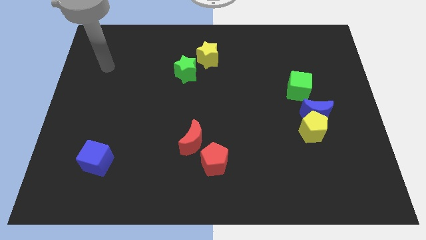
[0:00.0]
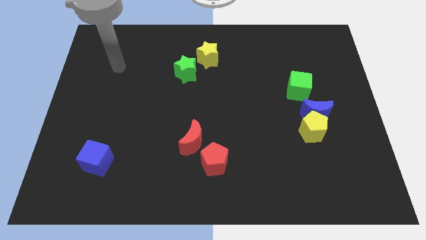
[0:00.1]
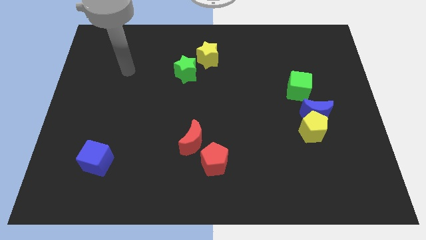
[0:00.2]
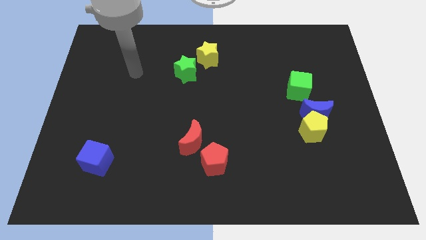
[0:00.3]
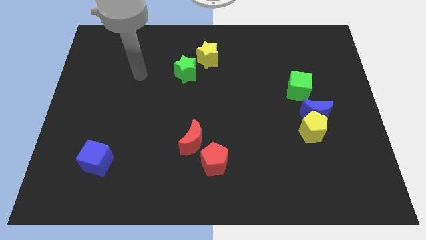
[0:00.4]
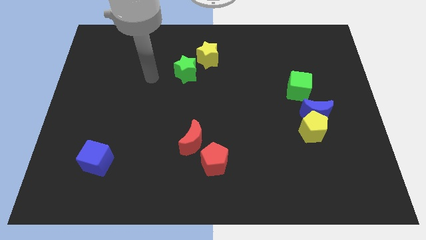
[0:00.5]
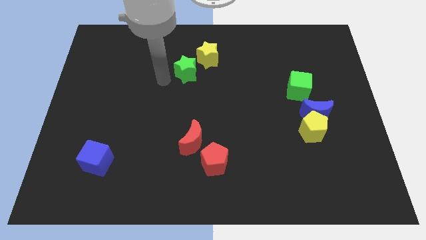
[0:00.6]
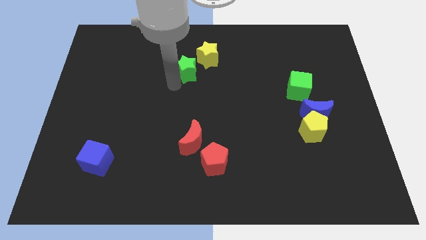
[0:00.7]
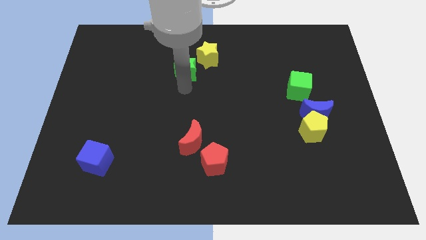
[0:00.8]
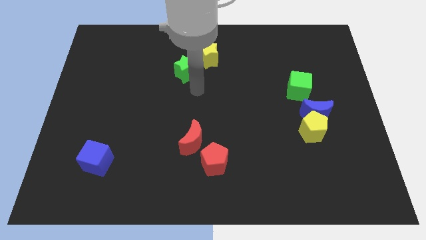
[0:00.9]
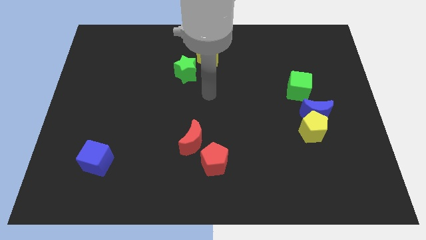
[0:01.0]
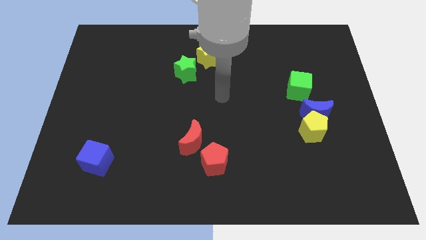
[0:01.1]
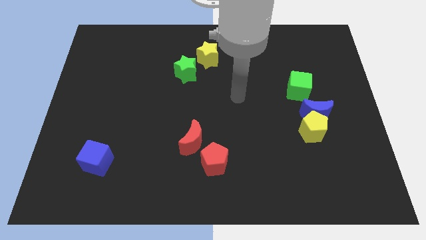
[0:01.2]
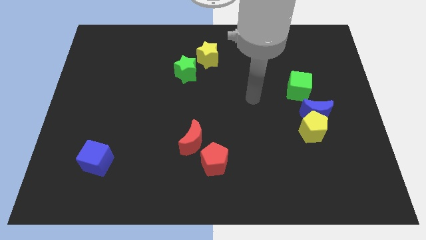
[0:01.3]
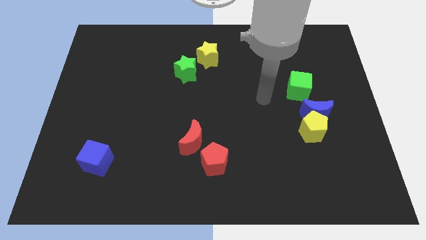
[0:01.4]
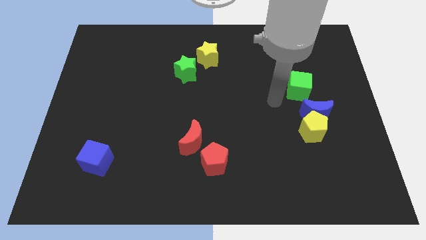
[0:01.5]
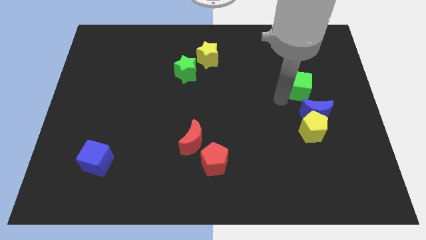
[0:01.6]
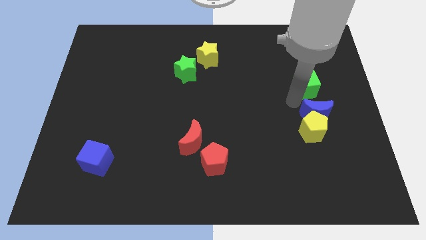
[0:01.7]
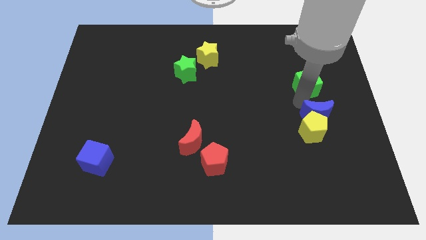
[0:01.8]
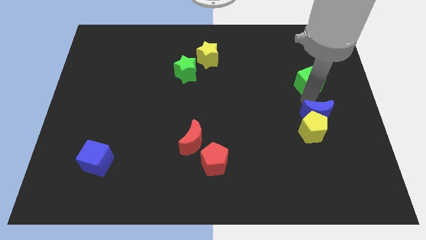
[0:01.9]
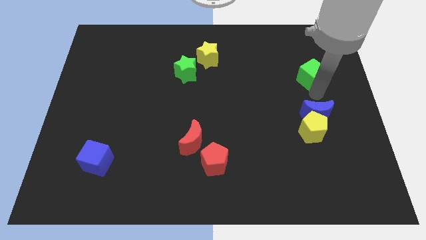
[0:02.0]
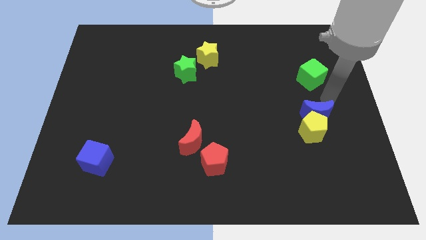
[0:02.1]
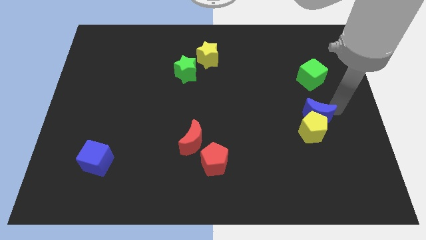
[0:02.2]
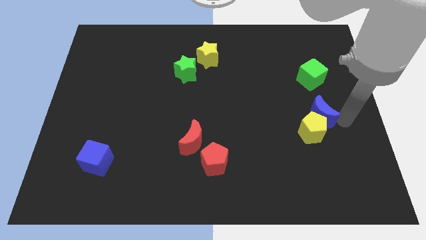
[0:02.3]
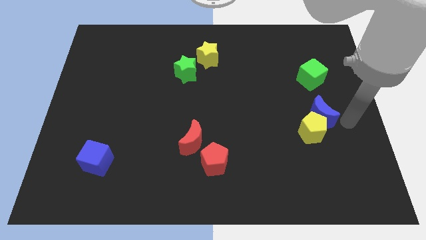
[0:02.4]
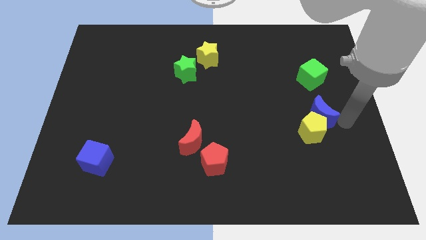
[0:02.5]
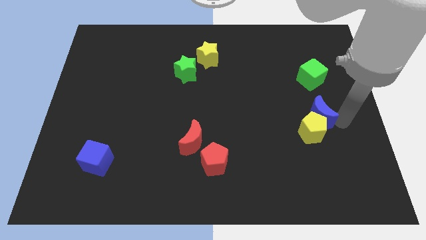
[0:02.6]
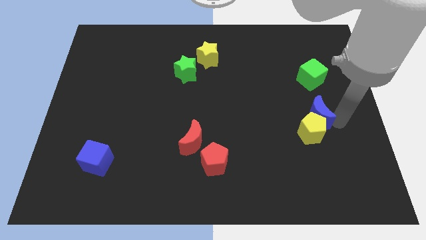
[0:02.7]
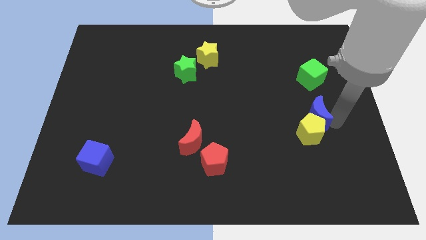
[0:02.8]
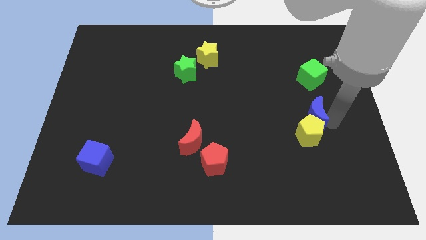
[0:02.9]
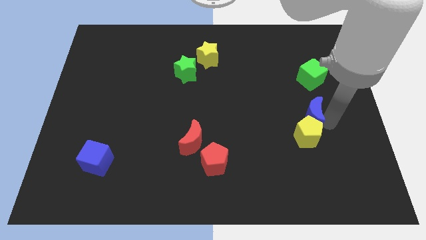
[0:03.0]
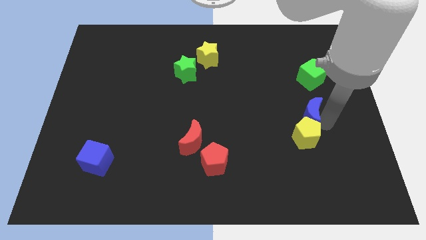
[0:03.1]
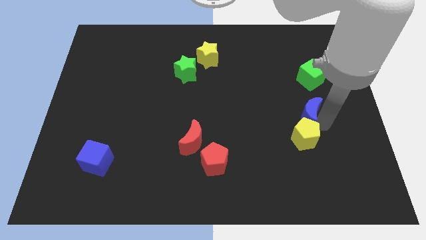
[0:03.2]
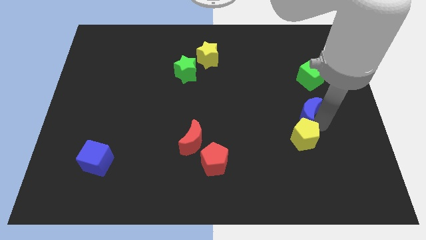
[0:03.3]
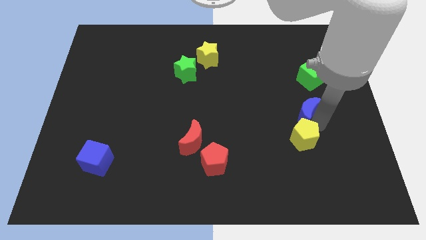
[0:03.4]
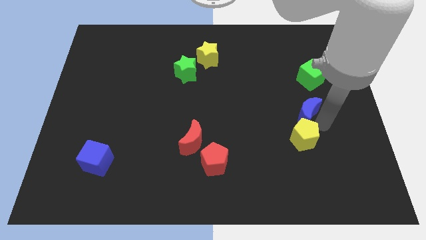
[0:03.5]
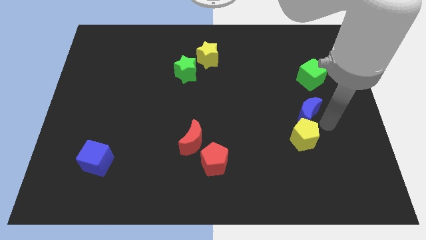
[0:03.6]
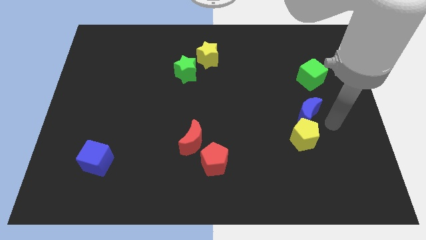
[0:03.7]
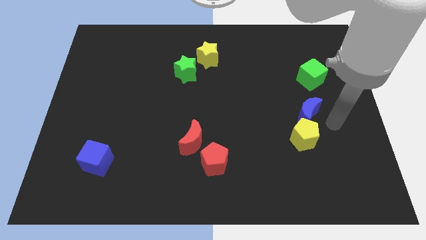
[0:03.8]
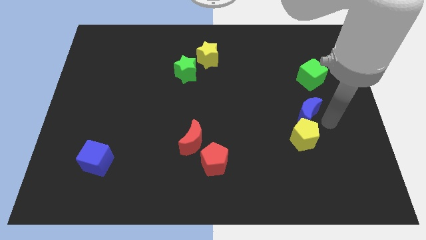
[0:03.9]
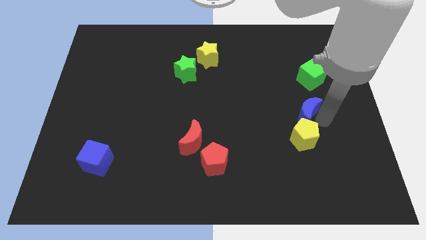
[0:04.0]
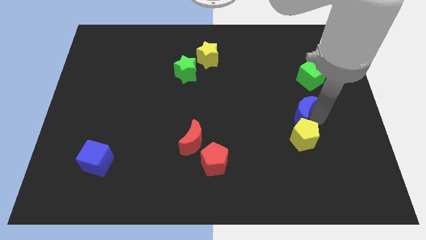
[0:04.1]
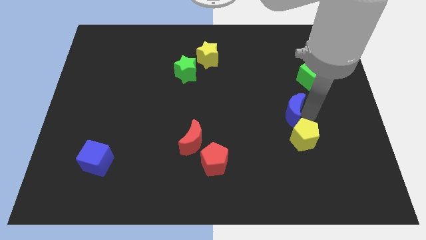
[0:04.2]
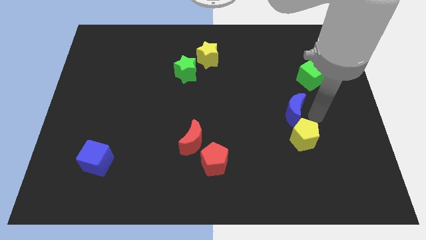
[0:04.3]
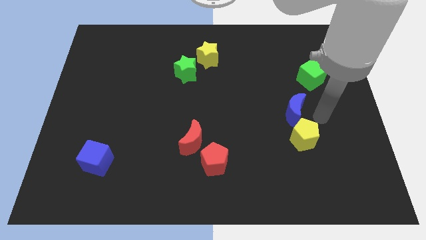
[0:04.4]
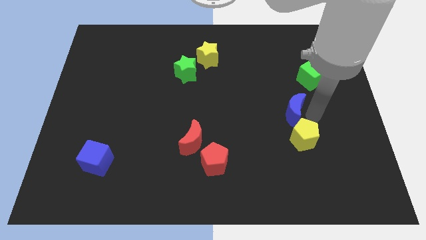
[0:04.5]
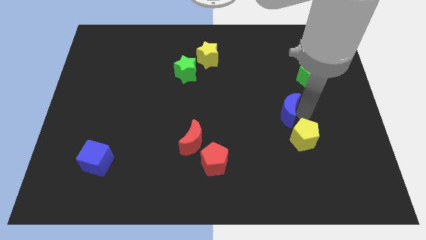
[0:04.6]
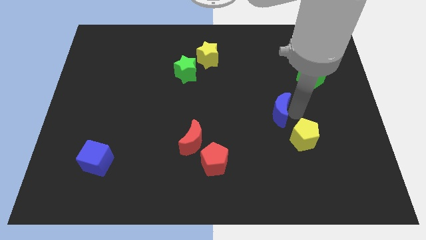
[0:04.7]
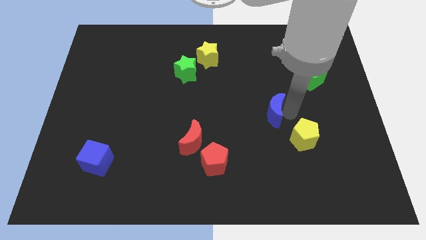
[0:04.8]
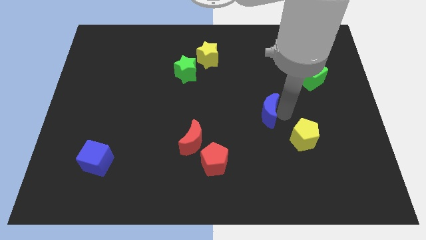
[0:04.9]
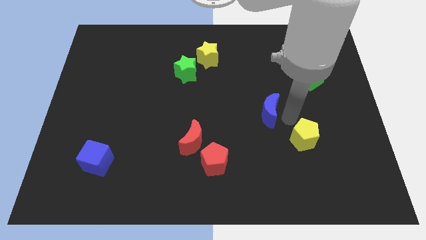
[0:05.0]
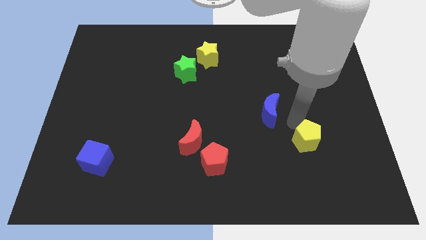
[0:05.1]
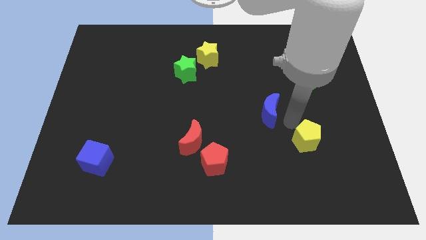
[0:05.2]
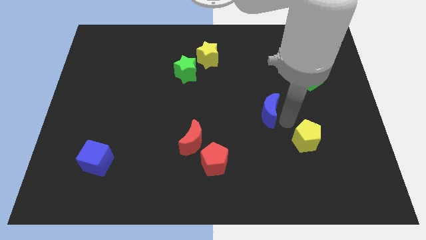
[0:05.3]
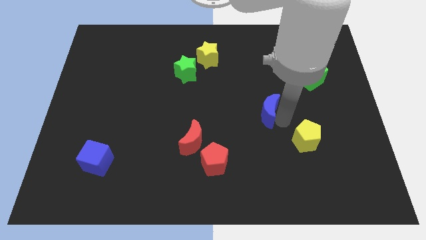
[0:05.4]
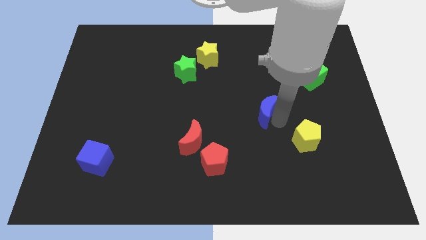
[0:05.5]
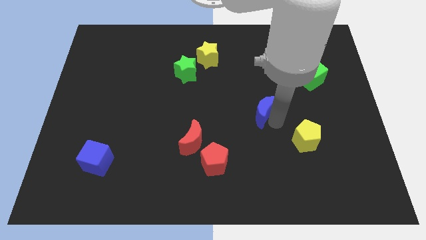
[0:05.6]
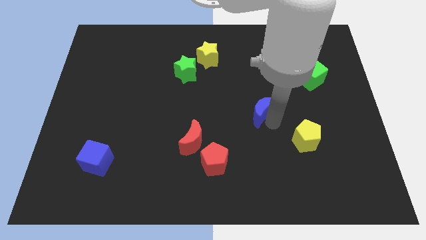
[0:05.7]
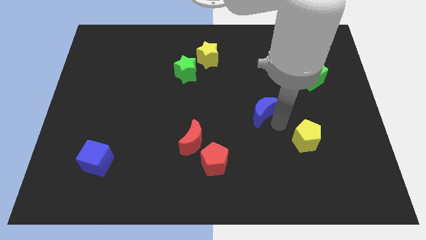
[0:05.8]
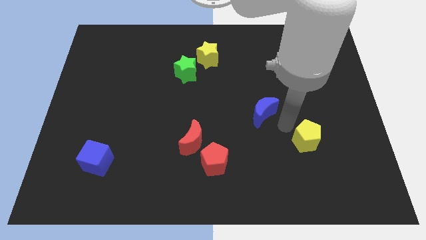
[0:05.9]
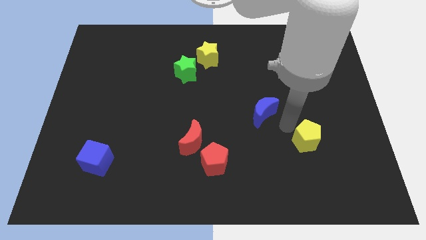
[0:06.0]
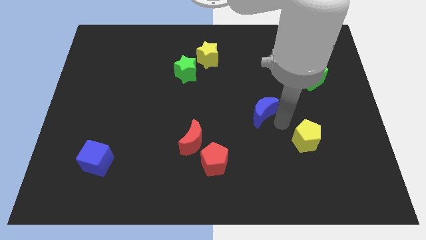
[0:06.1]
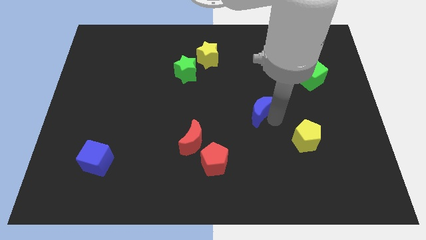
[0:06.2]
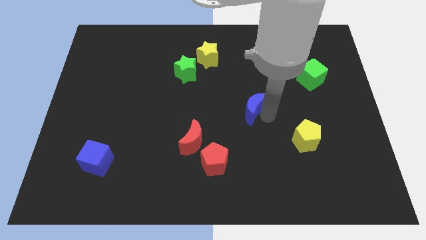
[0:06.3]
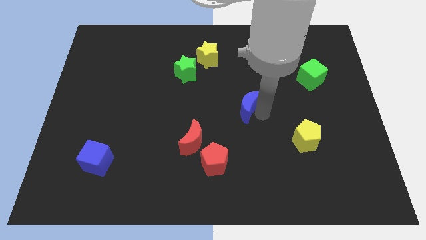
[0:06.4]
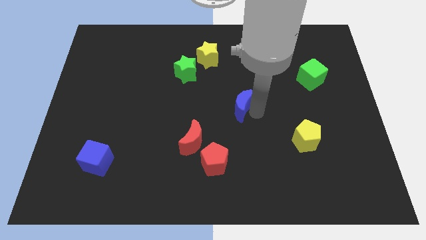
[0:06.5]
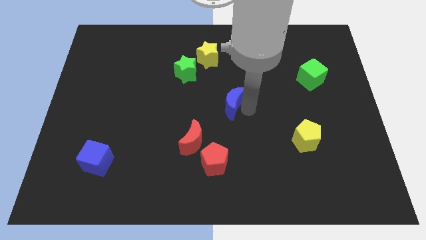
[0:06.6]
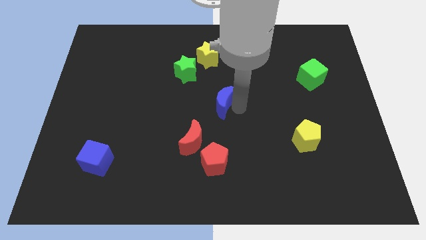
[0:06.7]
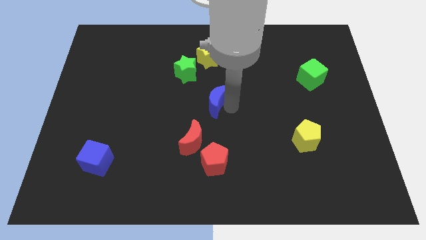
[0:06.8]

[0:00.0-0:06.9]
push the blue moon to the bottom right of the green star
